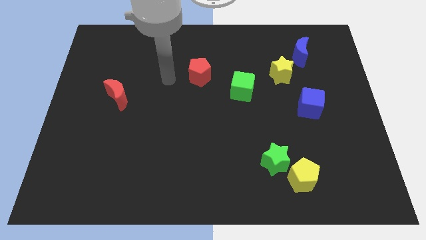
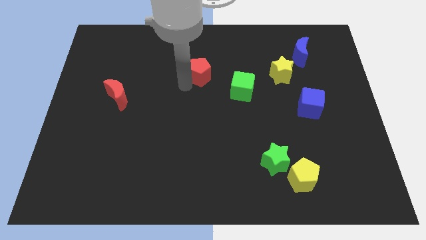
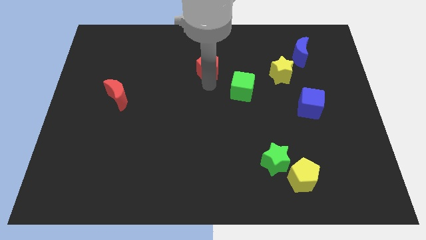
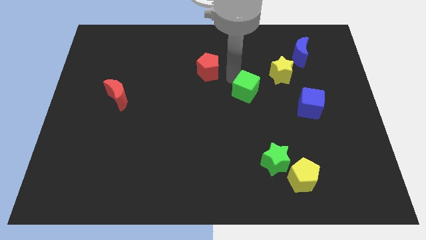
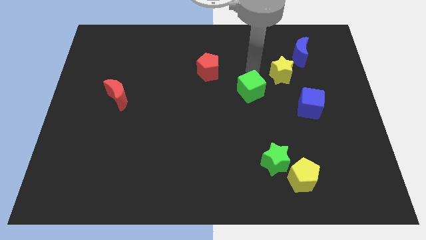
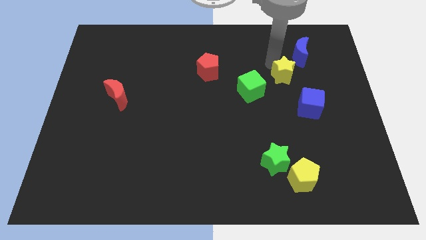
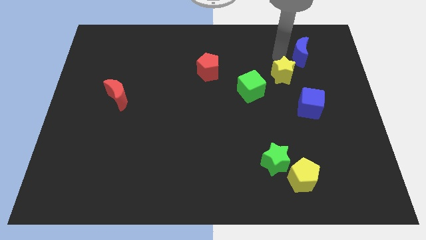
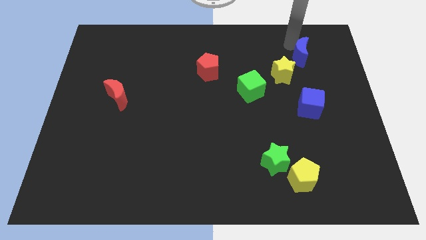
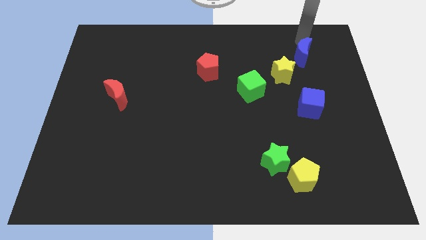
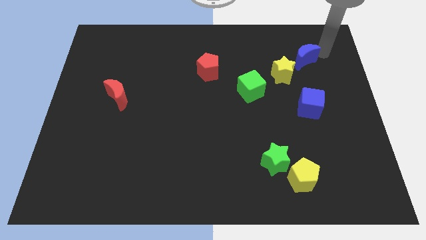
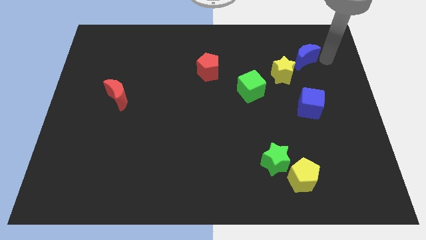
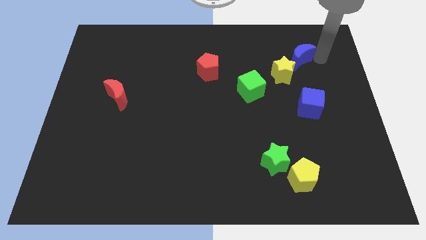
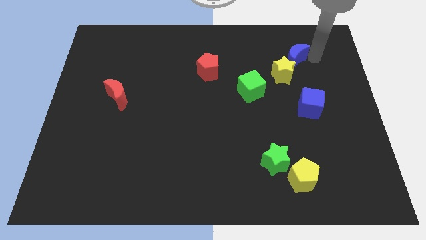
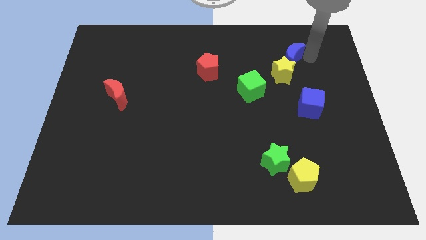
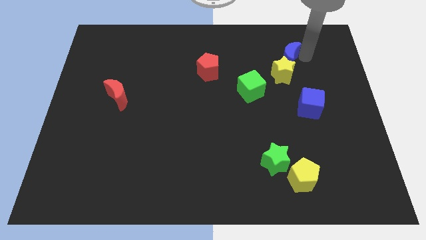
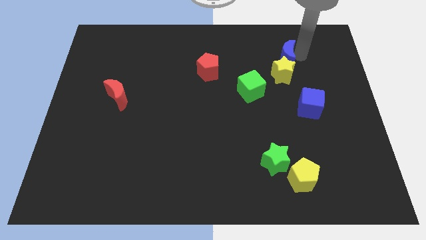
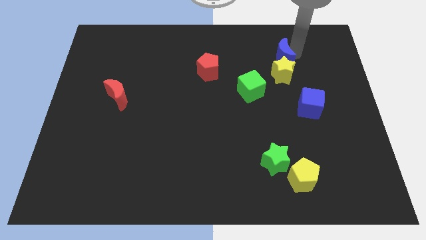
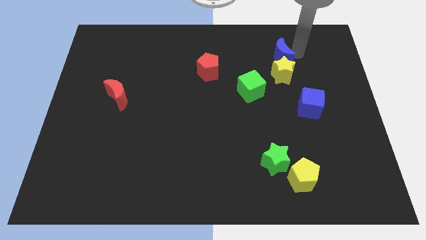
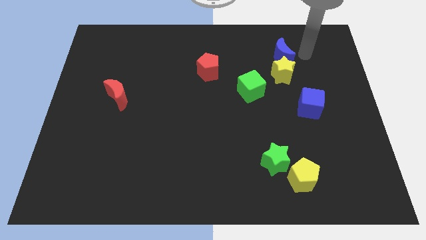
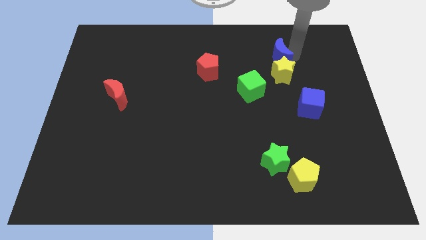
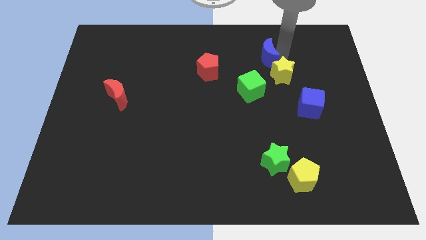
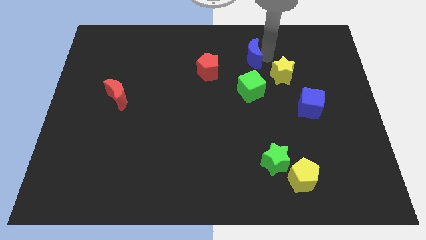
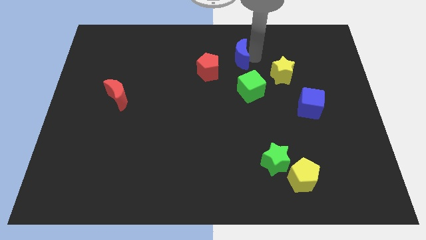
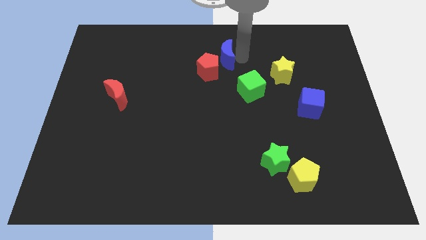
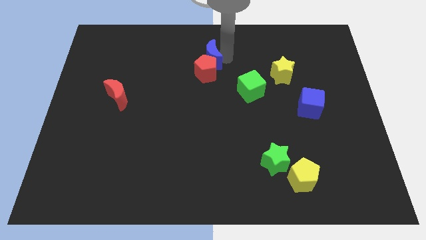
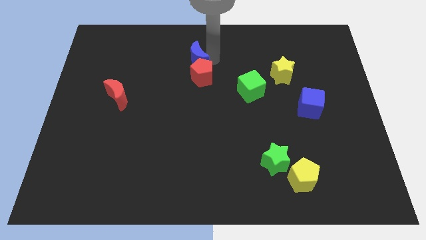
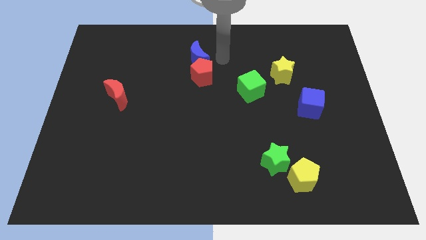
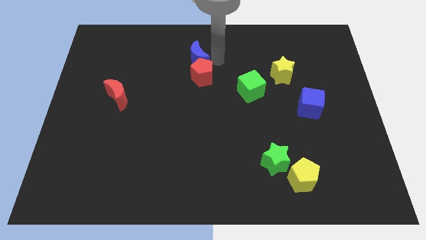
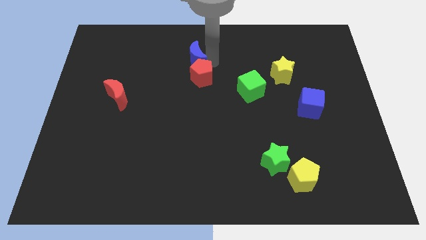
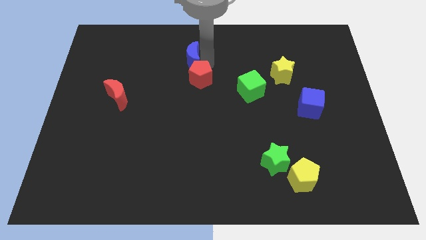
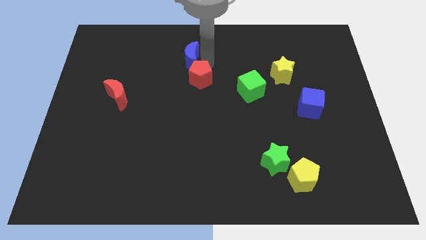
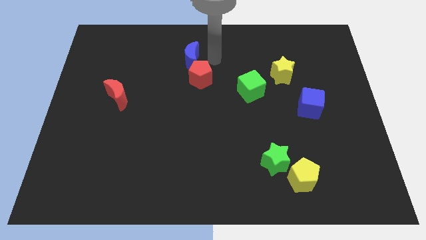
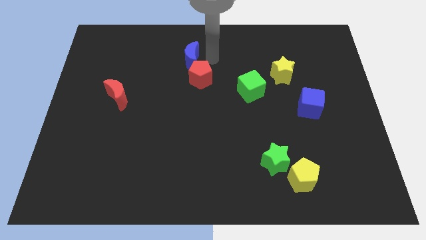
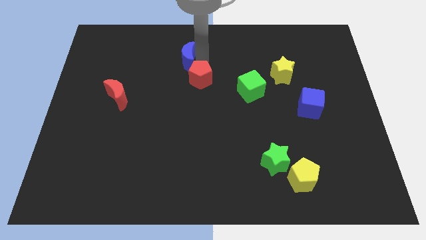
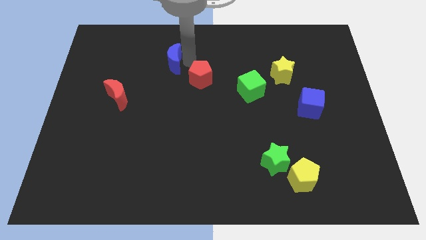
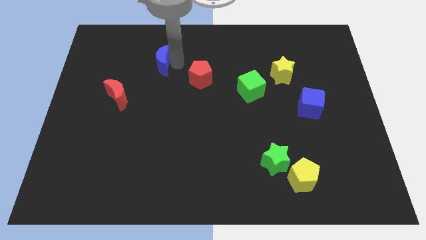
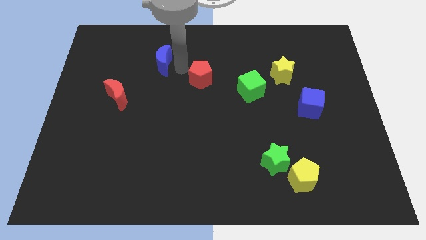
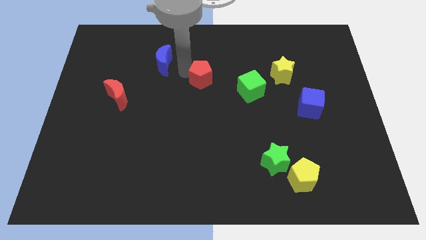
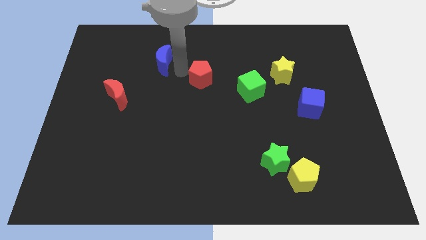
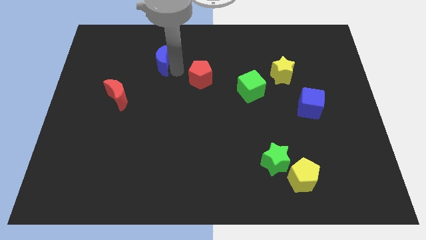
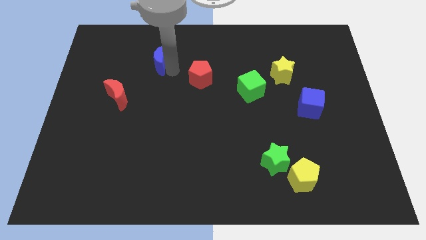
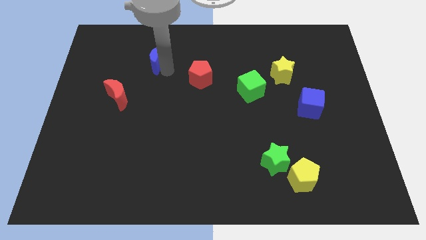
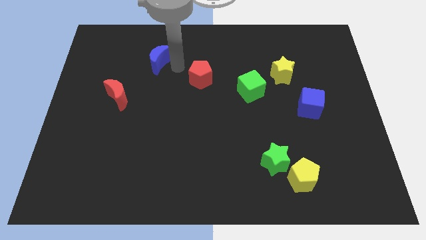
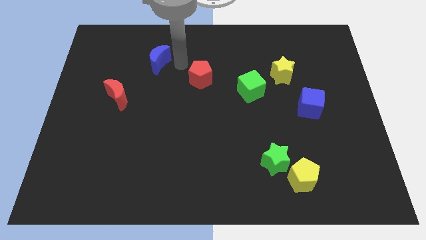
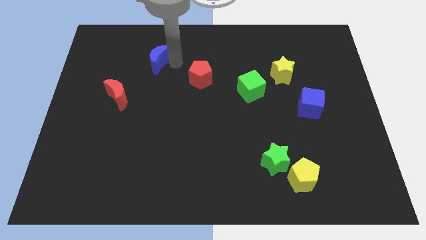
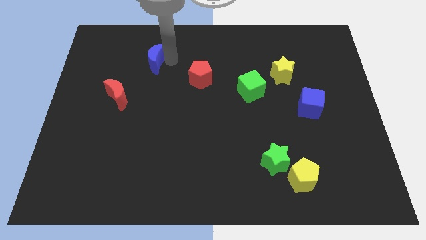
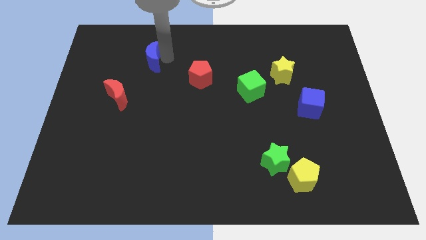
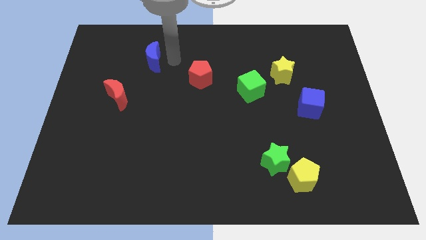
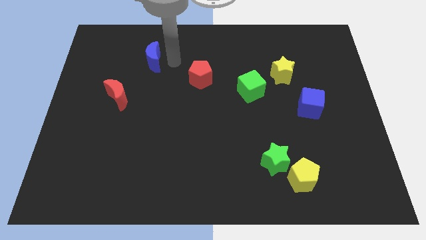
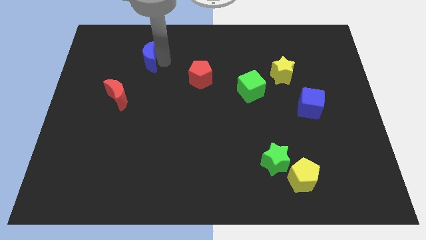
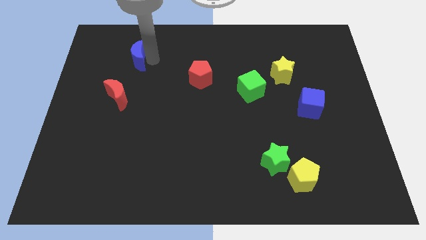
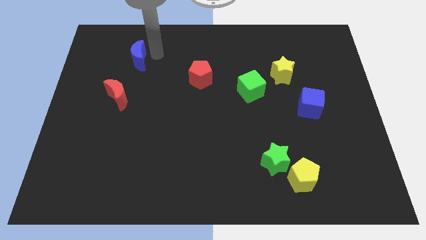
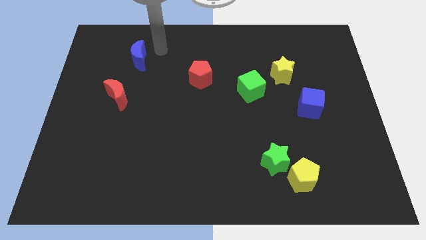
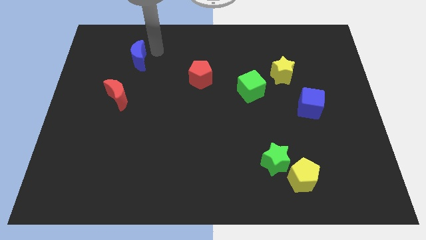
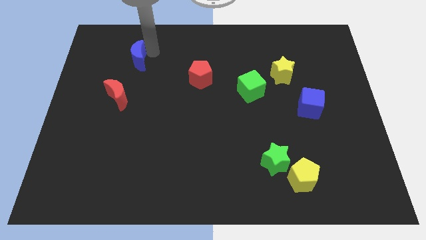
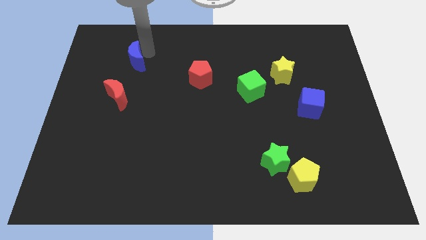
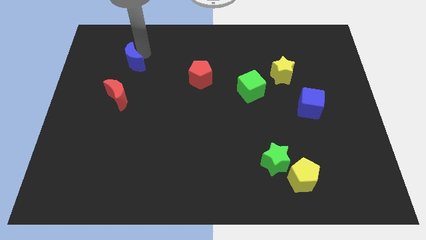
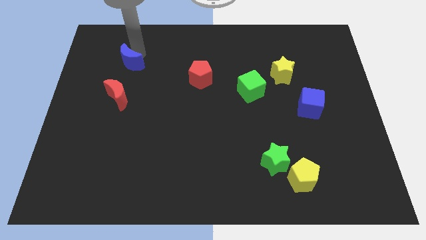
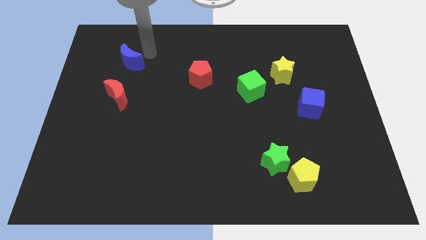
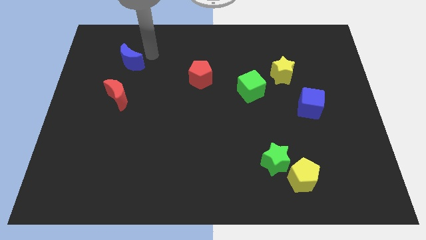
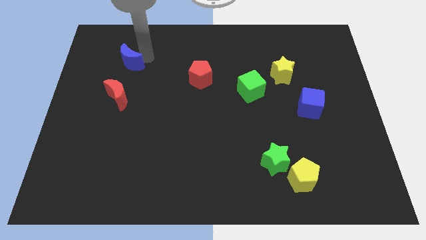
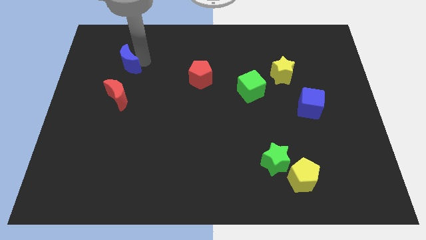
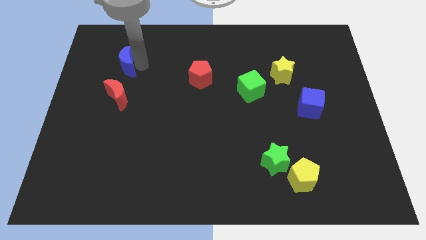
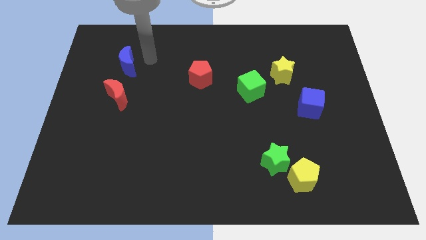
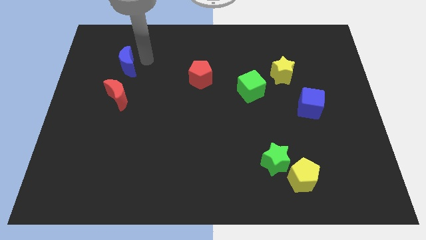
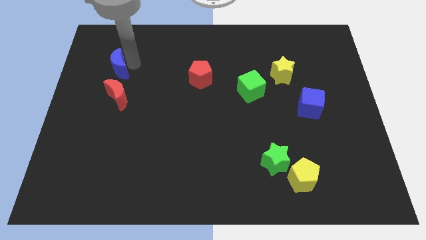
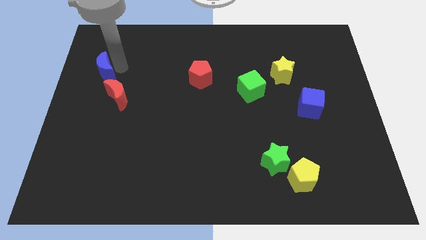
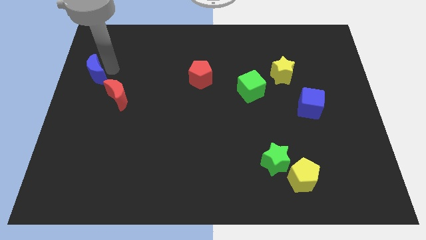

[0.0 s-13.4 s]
slide the blue moon to the left side

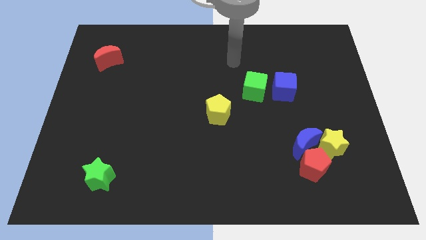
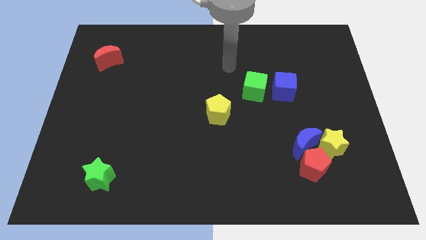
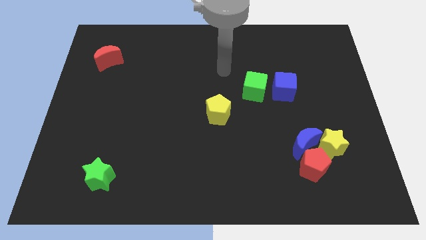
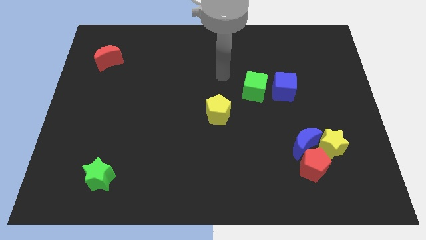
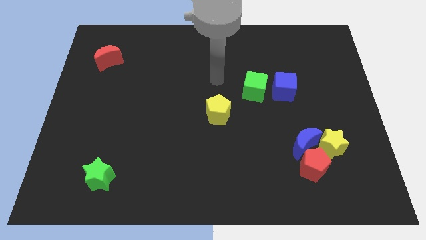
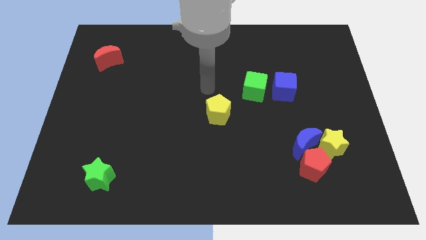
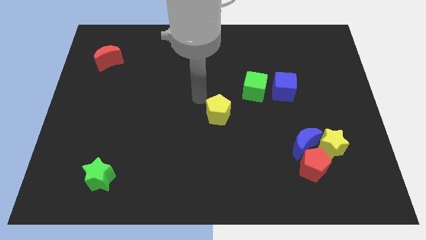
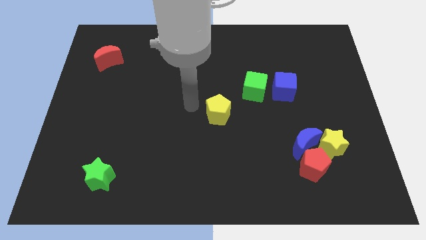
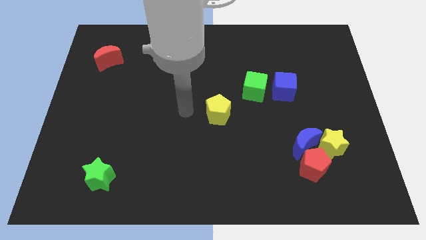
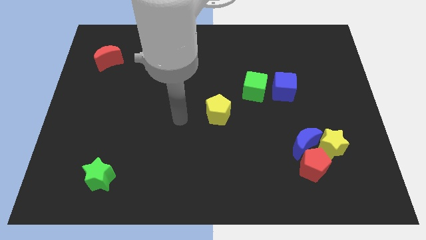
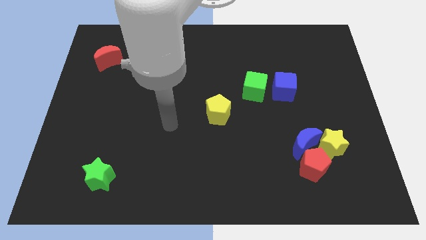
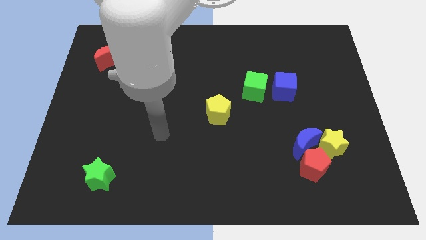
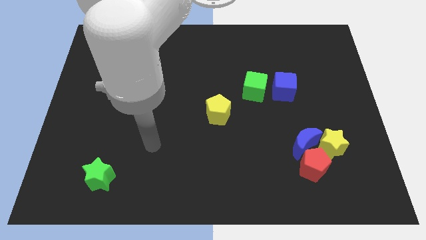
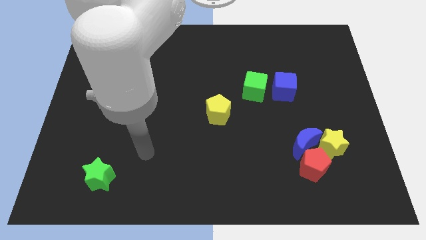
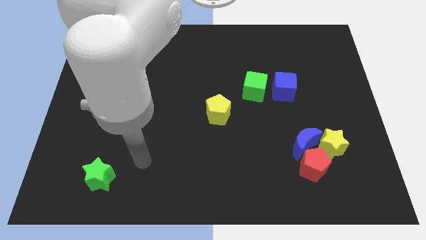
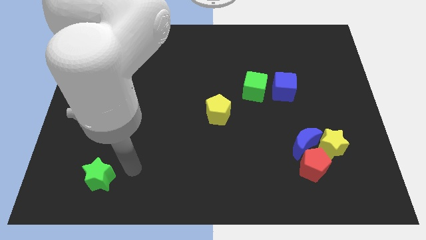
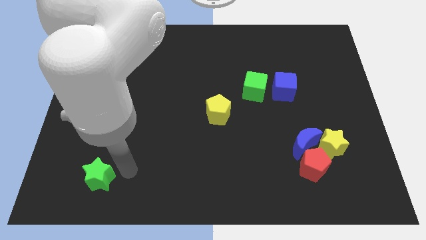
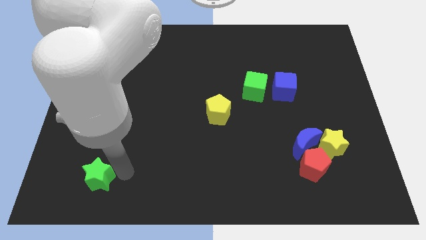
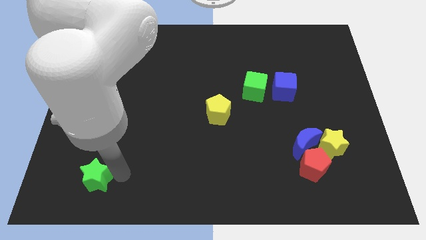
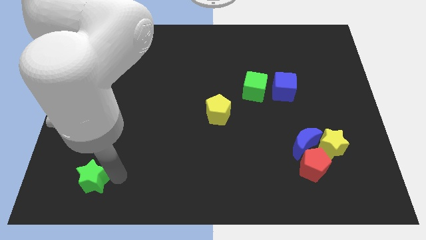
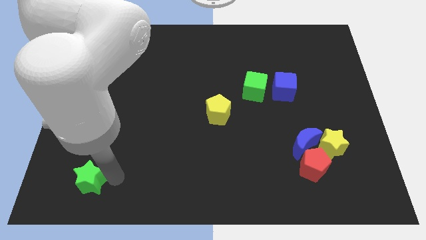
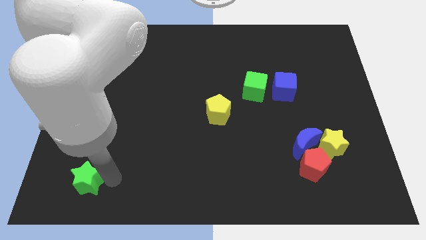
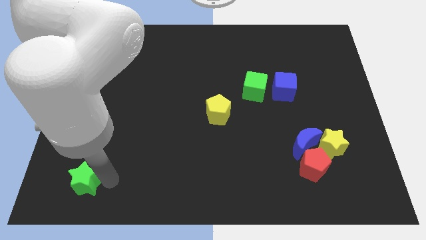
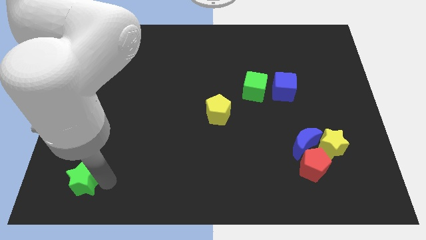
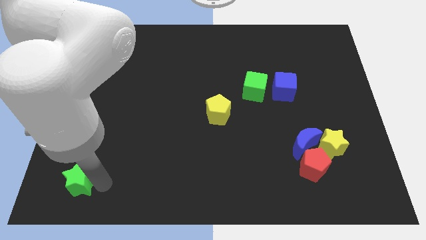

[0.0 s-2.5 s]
slide the green star to the bottom left
